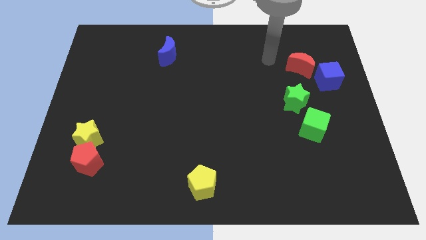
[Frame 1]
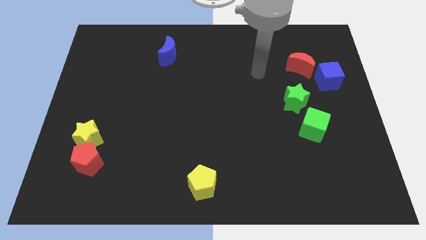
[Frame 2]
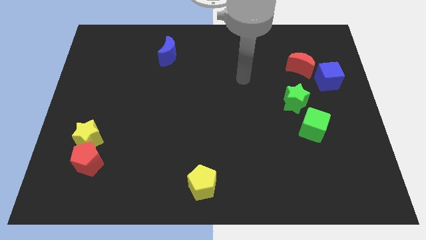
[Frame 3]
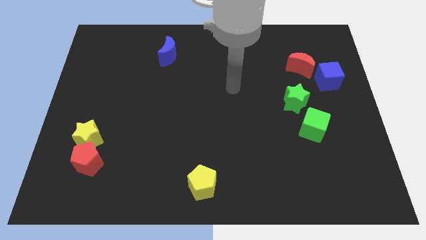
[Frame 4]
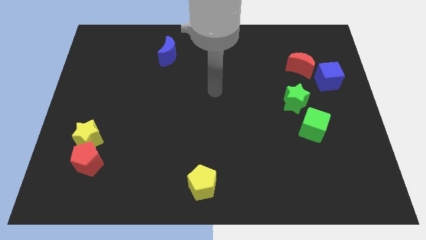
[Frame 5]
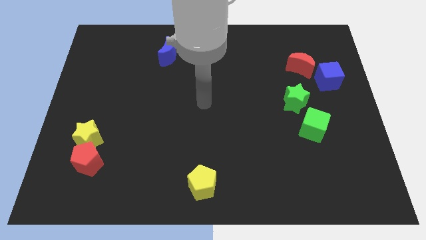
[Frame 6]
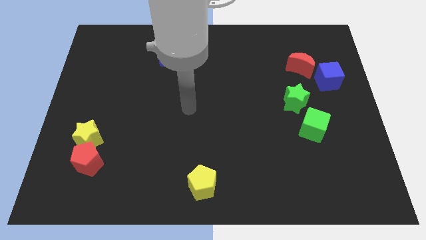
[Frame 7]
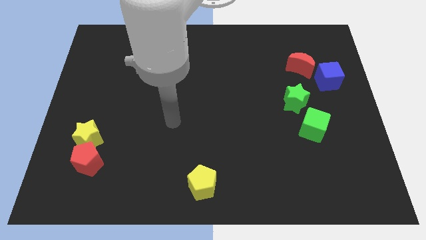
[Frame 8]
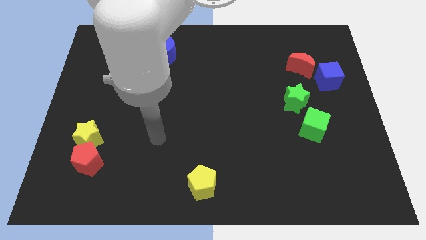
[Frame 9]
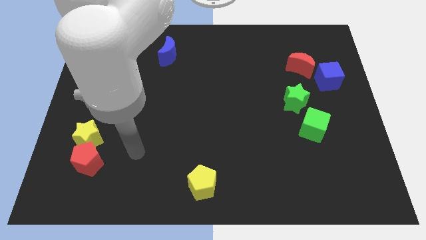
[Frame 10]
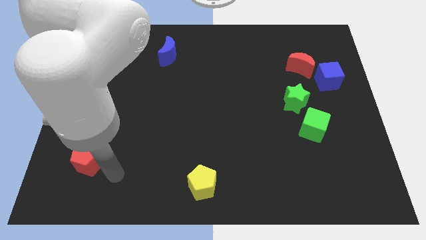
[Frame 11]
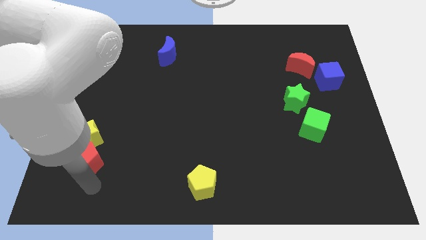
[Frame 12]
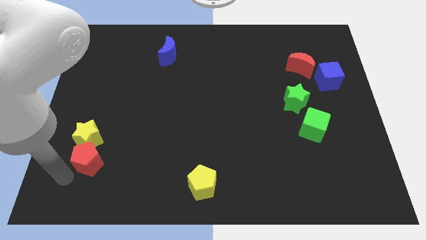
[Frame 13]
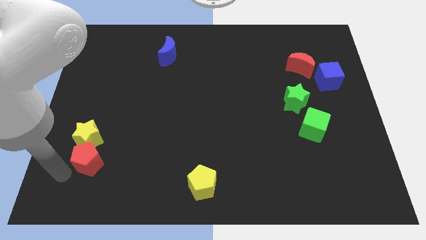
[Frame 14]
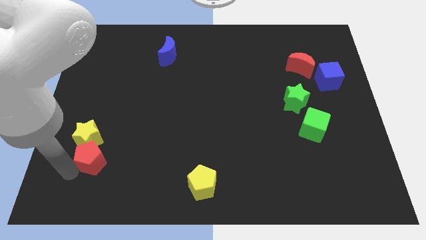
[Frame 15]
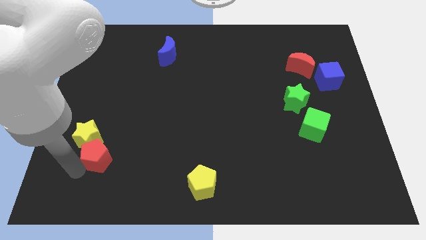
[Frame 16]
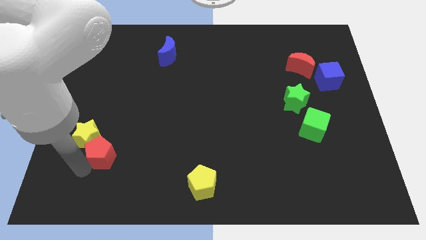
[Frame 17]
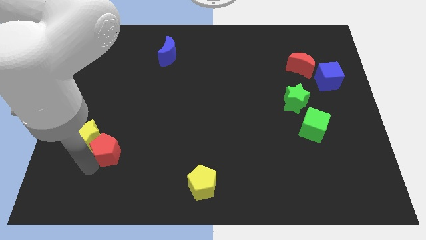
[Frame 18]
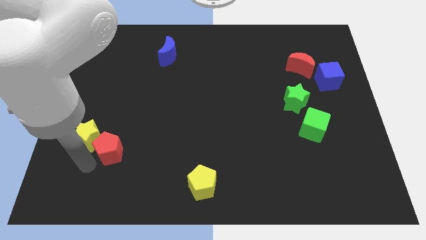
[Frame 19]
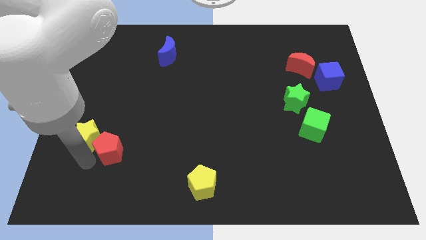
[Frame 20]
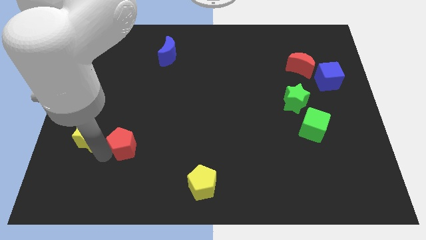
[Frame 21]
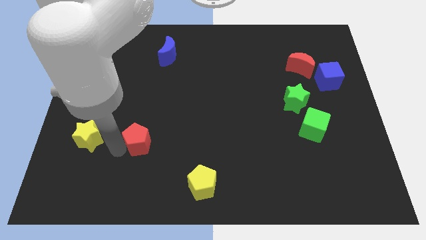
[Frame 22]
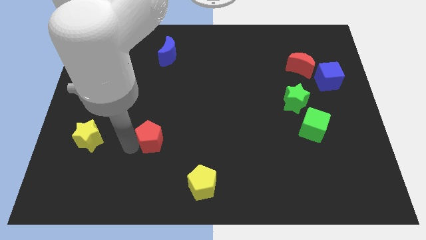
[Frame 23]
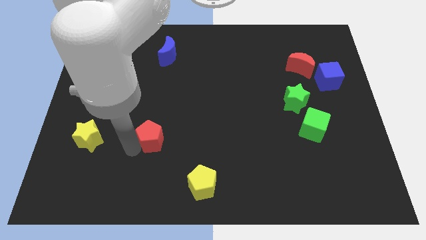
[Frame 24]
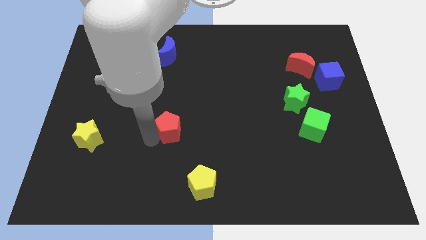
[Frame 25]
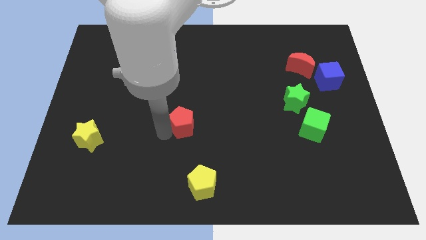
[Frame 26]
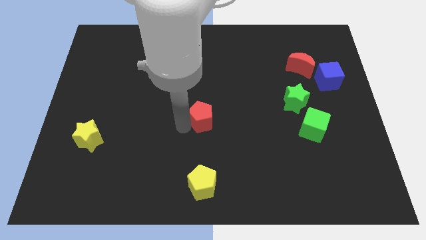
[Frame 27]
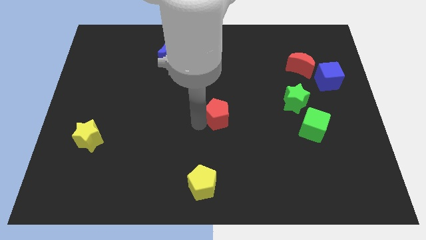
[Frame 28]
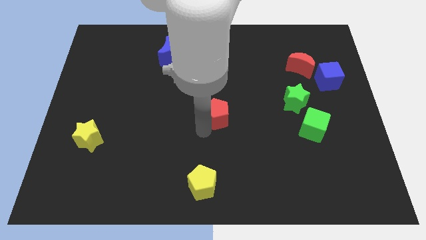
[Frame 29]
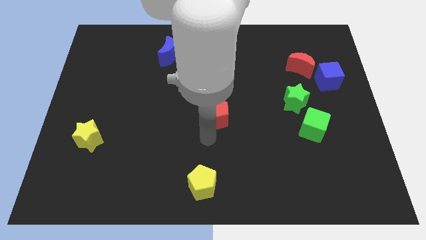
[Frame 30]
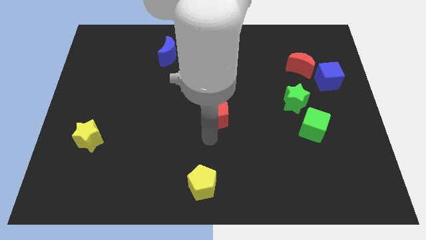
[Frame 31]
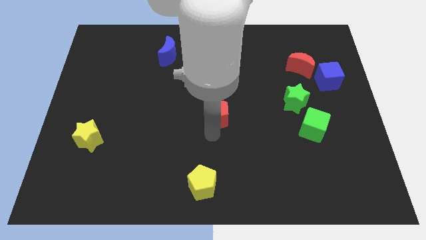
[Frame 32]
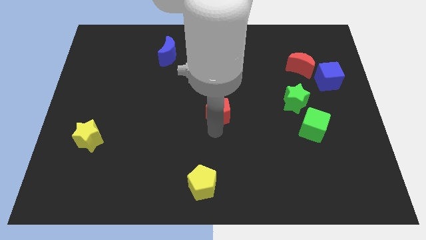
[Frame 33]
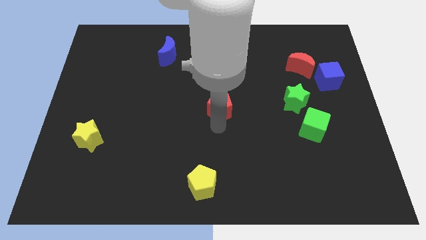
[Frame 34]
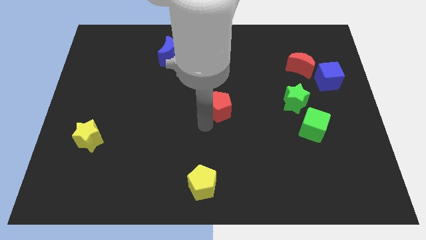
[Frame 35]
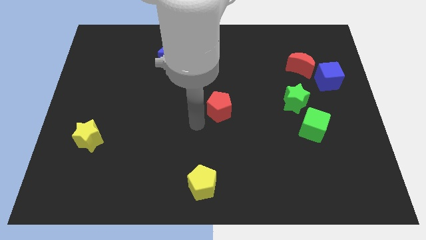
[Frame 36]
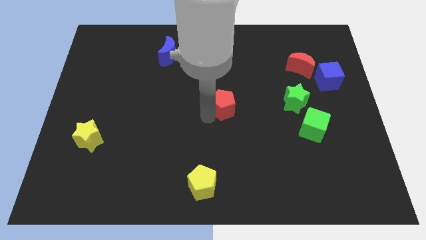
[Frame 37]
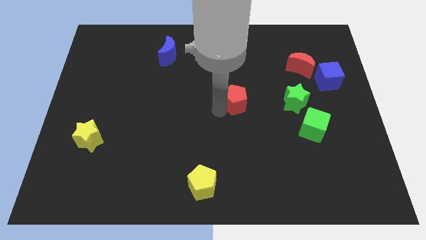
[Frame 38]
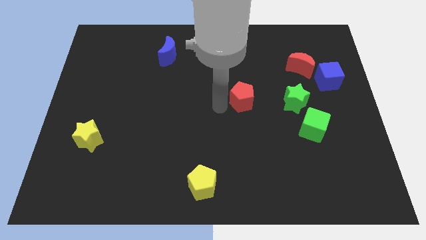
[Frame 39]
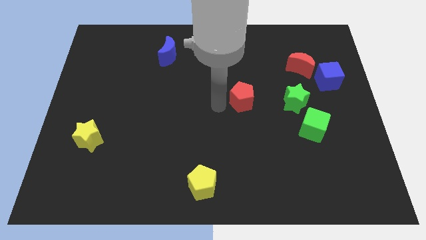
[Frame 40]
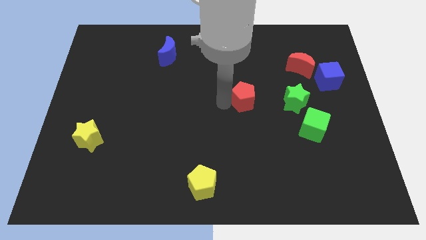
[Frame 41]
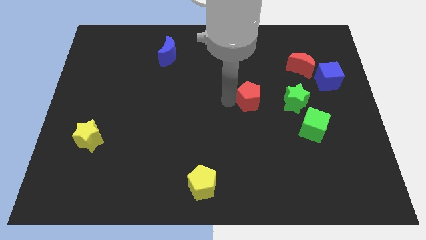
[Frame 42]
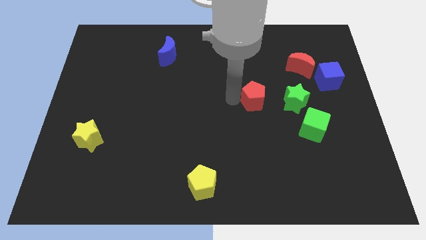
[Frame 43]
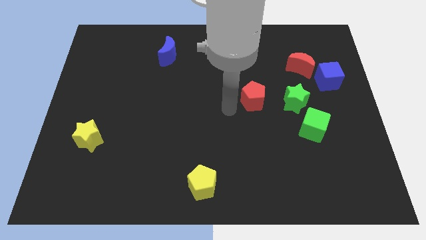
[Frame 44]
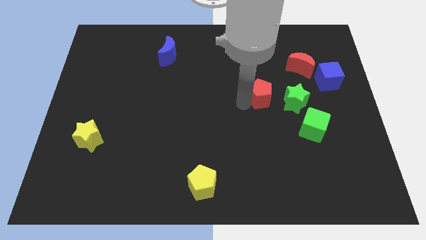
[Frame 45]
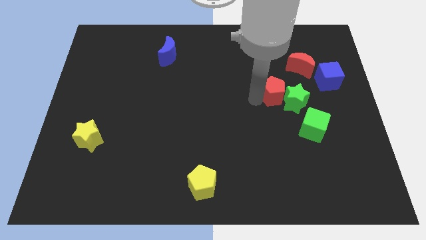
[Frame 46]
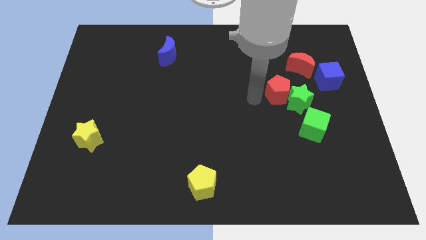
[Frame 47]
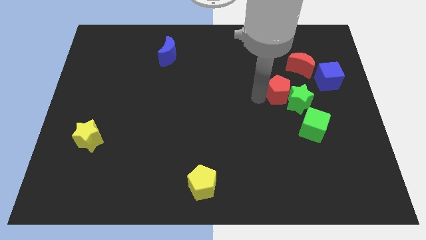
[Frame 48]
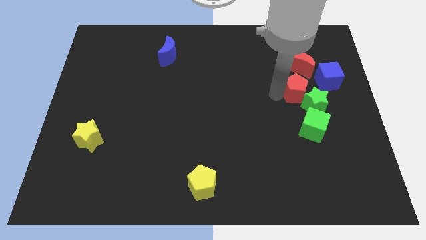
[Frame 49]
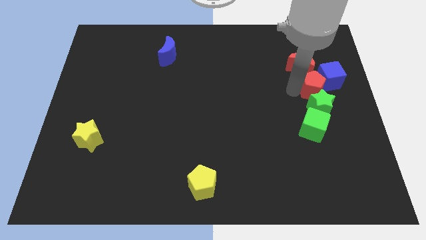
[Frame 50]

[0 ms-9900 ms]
slide the red pentagon to the top right side of the green star

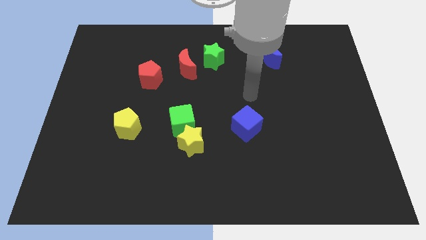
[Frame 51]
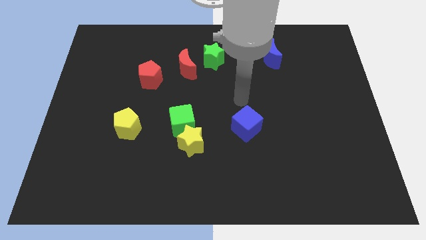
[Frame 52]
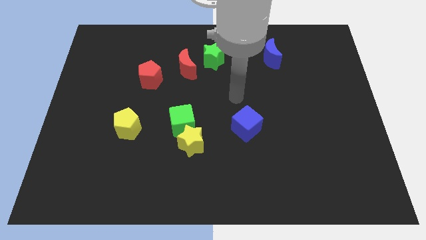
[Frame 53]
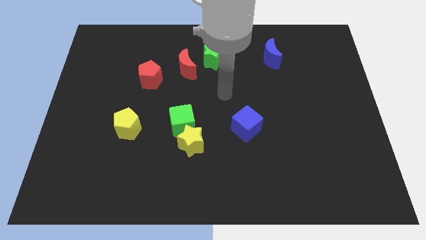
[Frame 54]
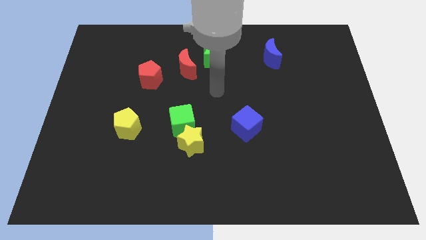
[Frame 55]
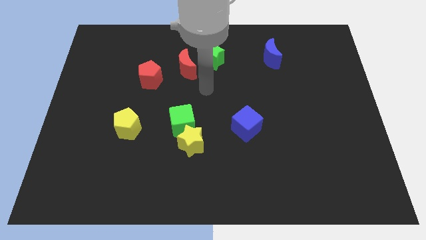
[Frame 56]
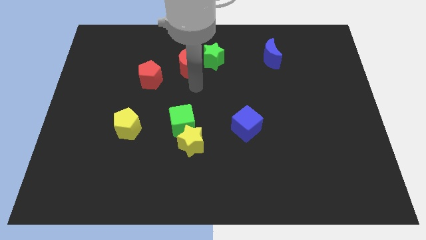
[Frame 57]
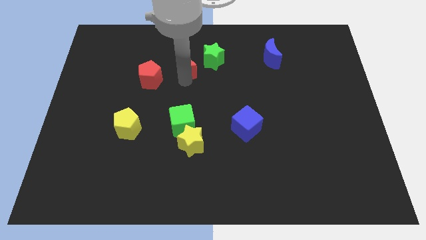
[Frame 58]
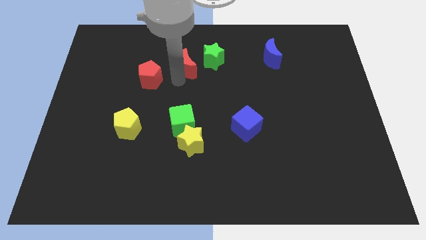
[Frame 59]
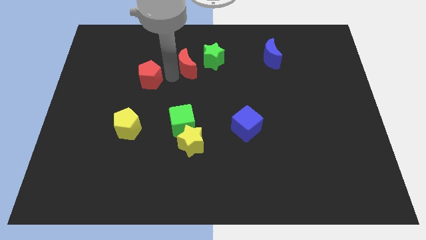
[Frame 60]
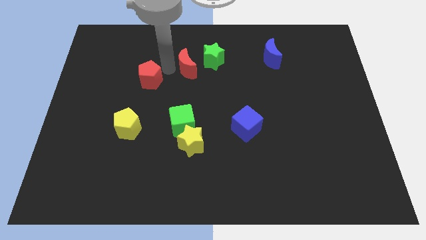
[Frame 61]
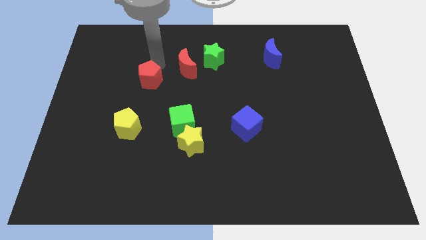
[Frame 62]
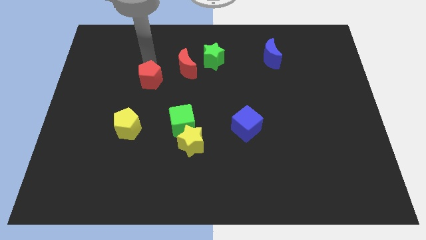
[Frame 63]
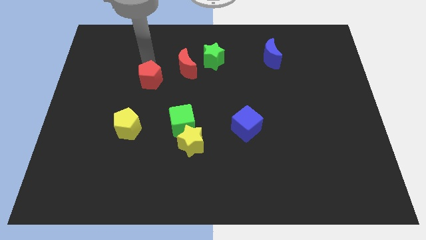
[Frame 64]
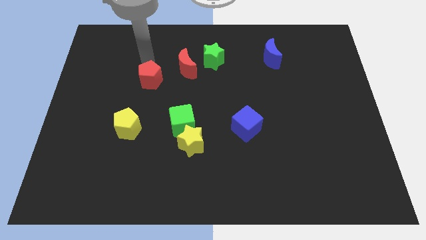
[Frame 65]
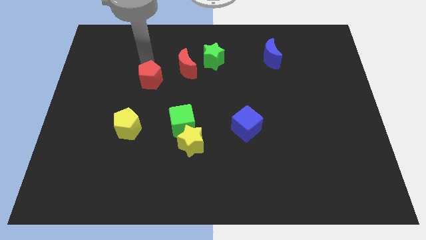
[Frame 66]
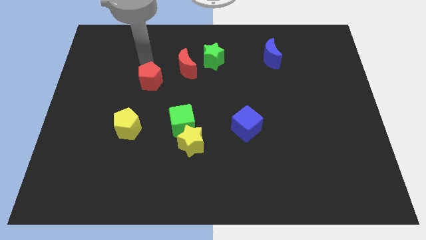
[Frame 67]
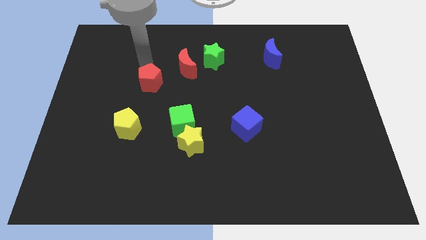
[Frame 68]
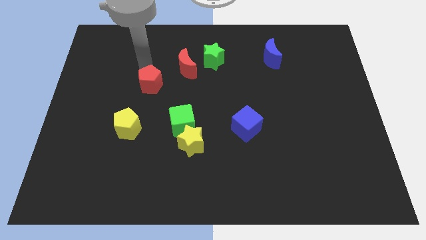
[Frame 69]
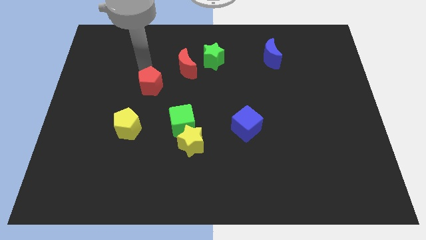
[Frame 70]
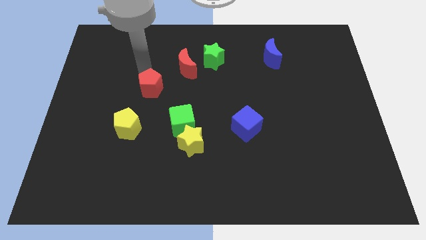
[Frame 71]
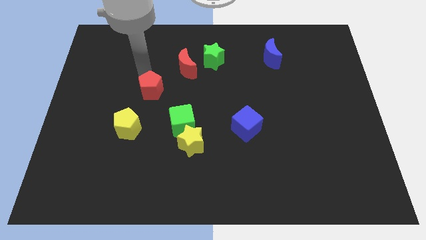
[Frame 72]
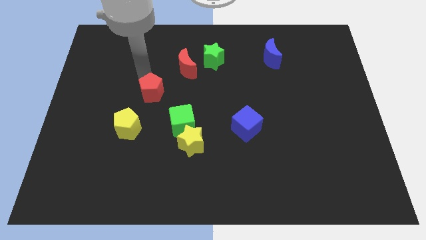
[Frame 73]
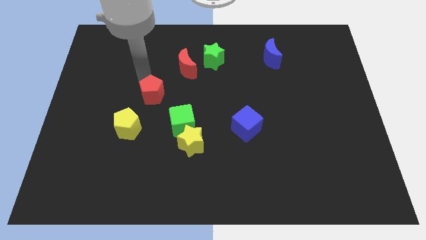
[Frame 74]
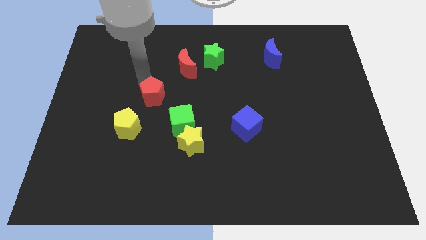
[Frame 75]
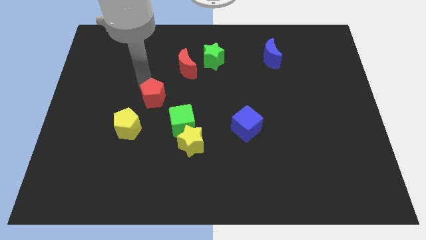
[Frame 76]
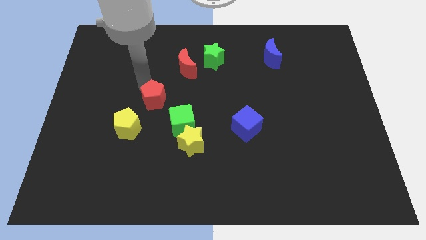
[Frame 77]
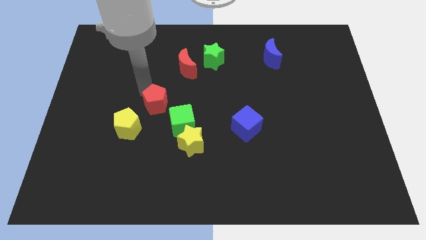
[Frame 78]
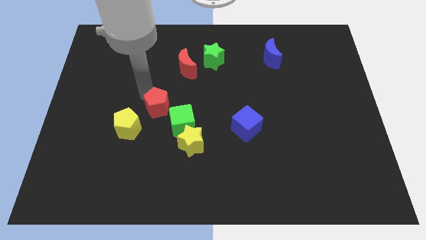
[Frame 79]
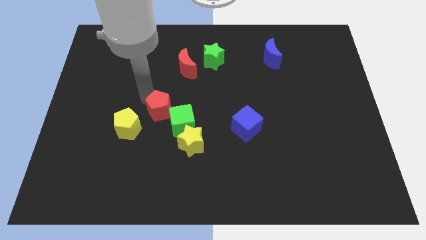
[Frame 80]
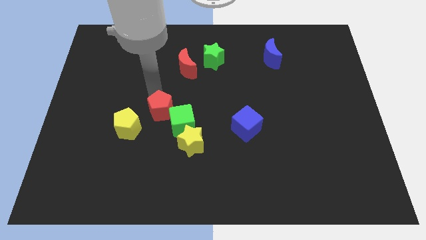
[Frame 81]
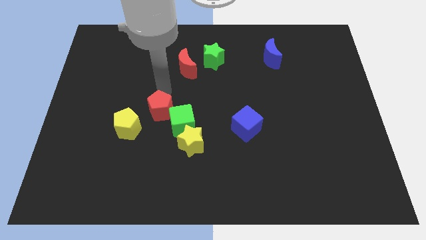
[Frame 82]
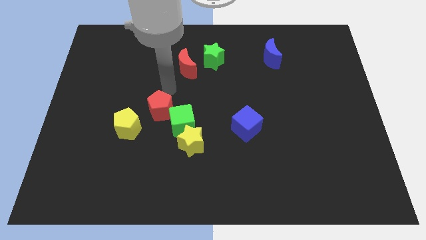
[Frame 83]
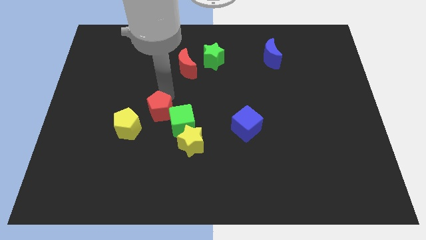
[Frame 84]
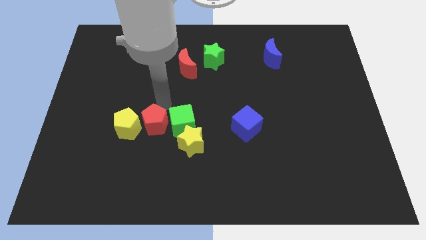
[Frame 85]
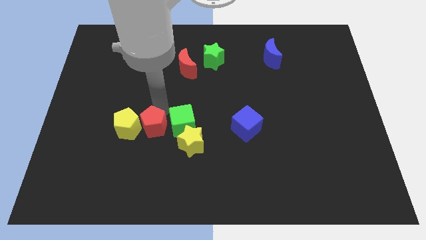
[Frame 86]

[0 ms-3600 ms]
move the red pentagon to the bottom right of the yellow pentagon
